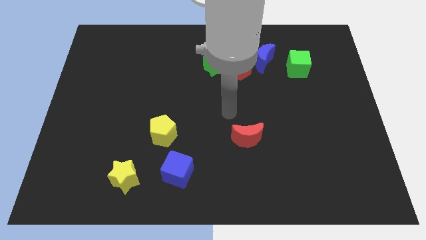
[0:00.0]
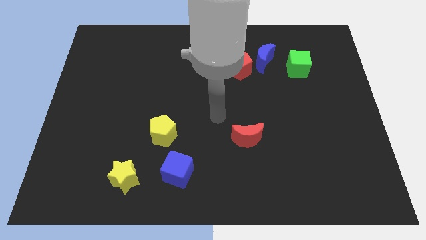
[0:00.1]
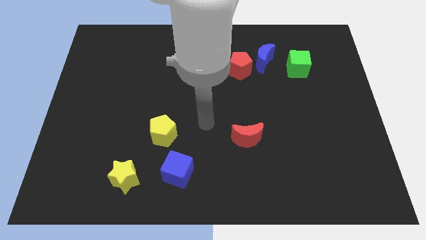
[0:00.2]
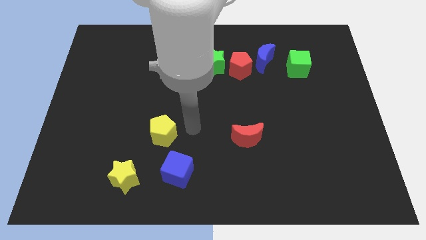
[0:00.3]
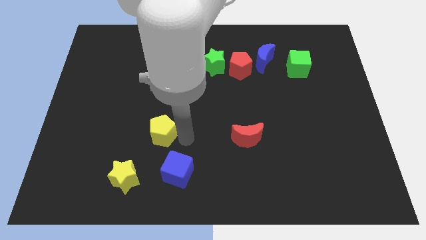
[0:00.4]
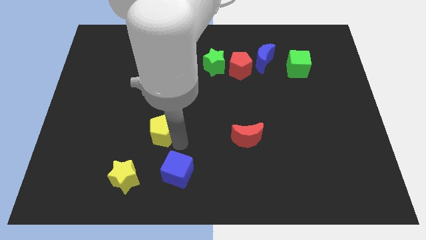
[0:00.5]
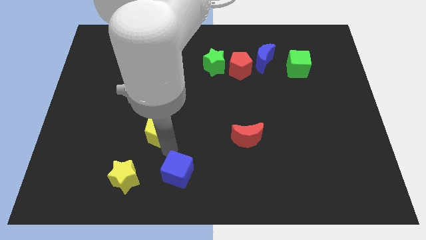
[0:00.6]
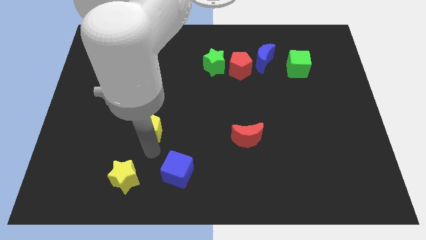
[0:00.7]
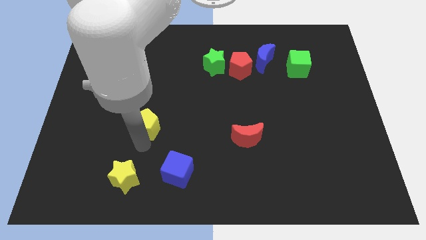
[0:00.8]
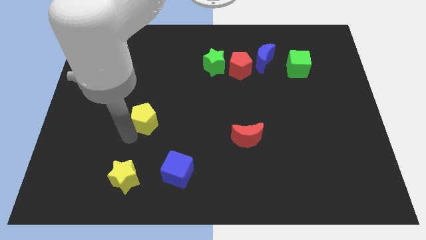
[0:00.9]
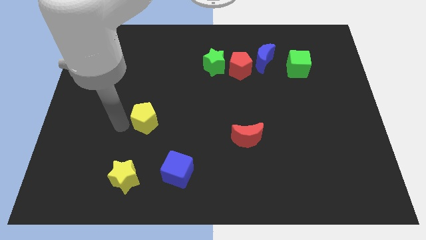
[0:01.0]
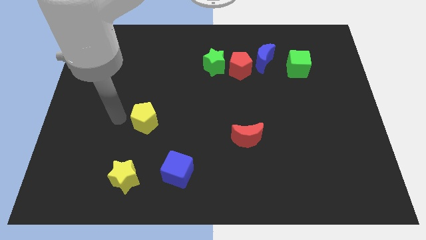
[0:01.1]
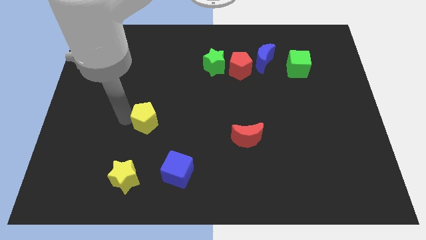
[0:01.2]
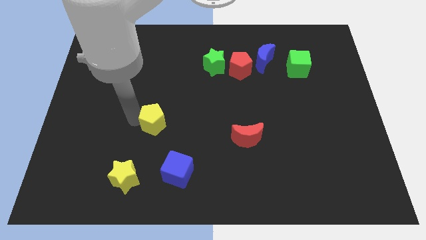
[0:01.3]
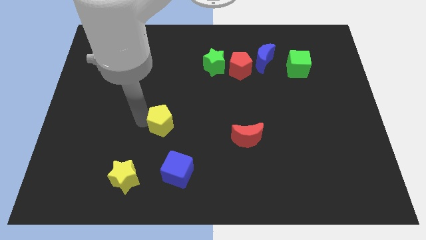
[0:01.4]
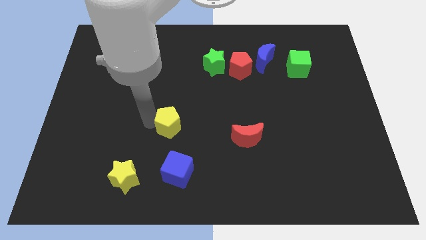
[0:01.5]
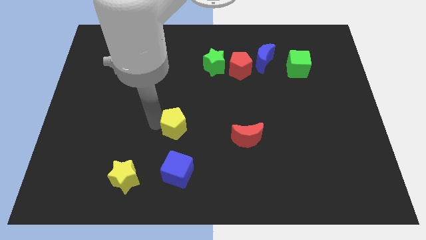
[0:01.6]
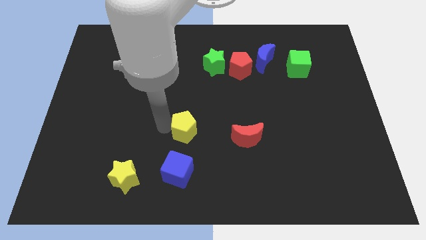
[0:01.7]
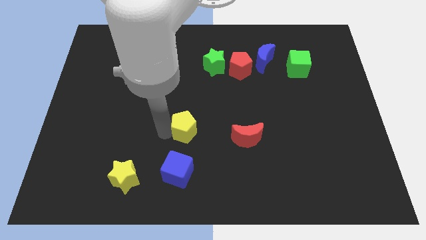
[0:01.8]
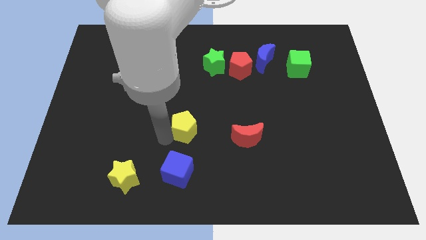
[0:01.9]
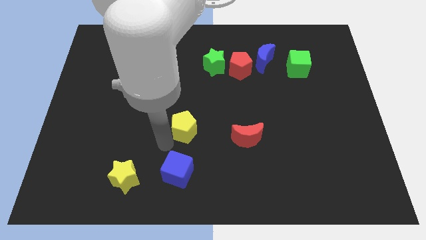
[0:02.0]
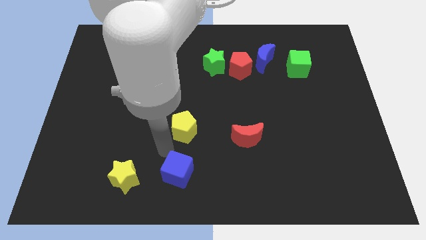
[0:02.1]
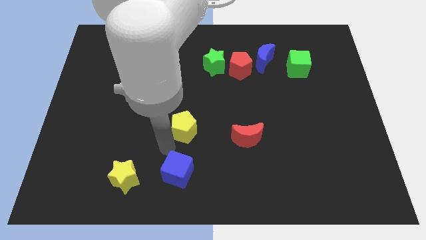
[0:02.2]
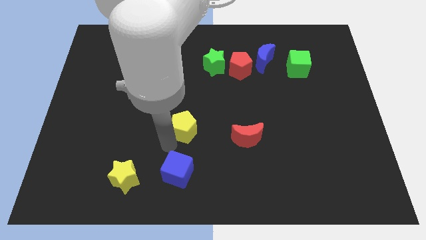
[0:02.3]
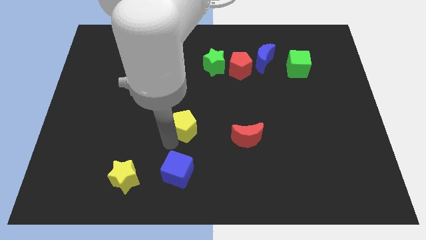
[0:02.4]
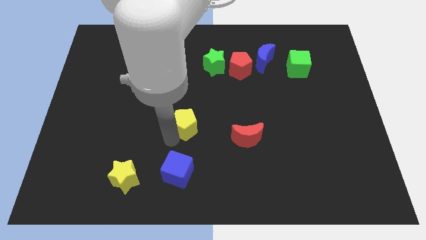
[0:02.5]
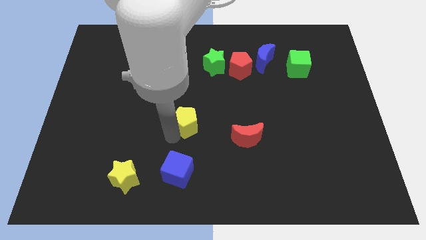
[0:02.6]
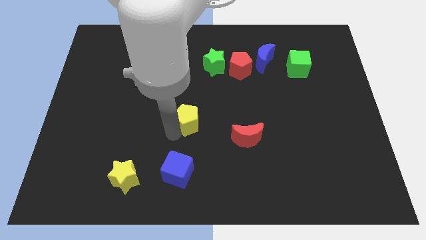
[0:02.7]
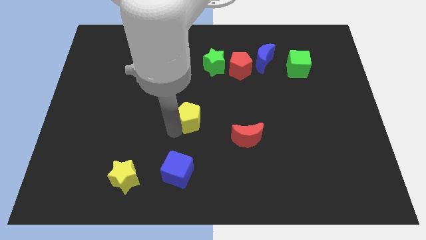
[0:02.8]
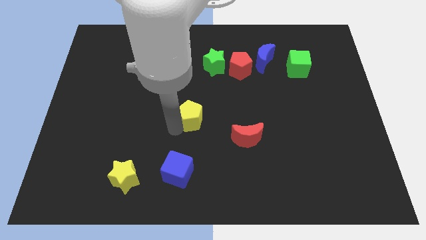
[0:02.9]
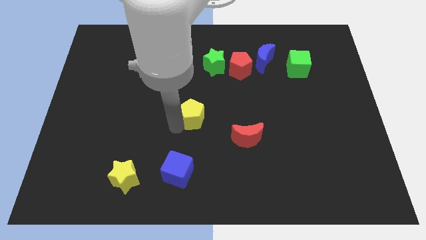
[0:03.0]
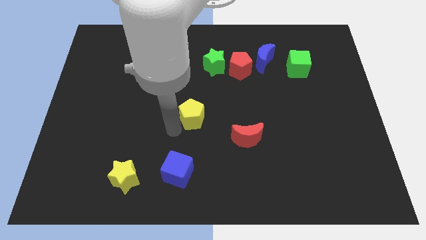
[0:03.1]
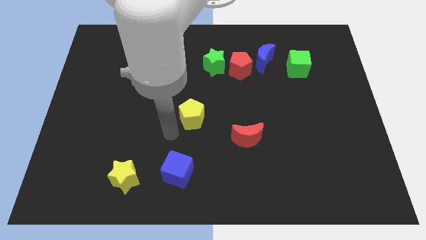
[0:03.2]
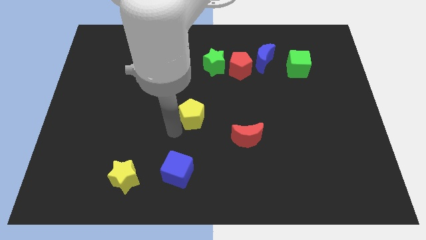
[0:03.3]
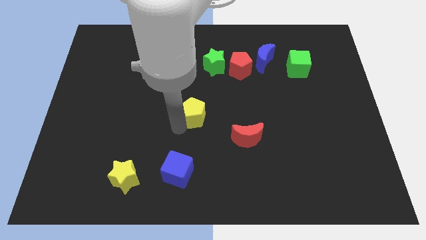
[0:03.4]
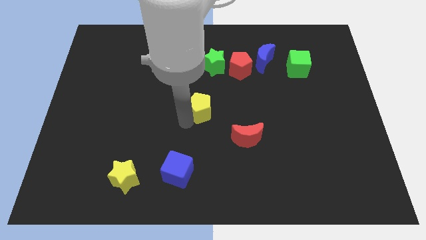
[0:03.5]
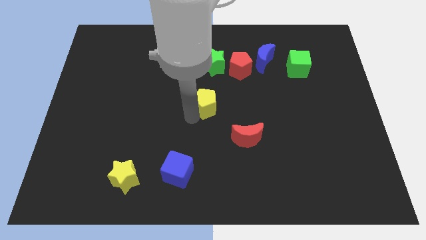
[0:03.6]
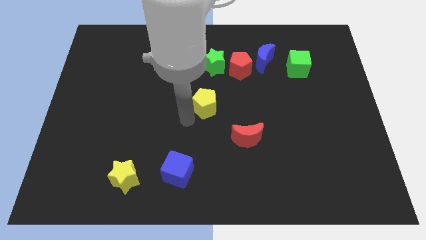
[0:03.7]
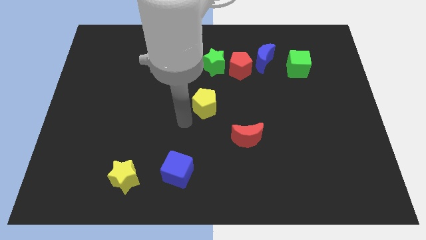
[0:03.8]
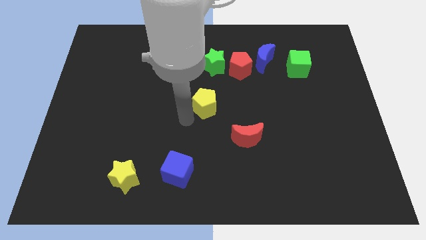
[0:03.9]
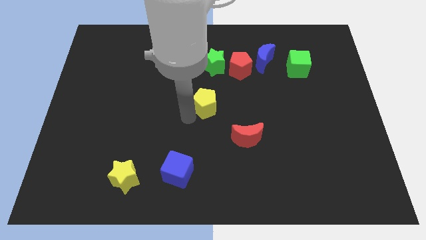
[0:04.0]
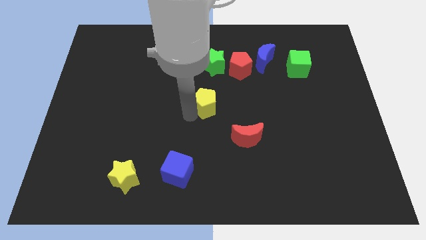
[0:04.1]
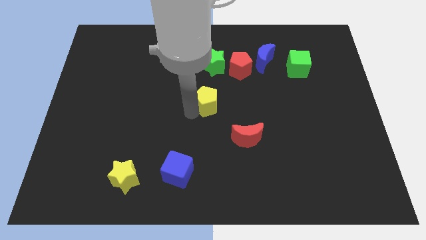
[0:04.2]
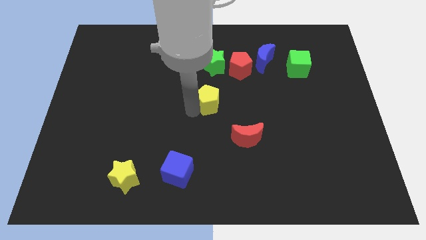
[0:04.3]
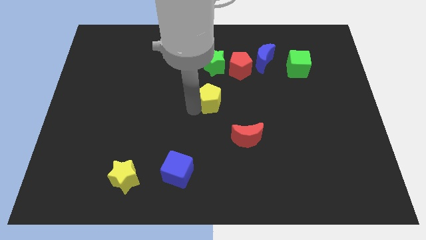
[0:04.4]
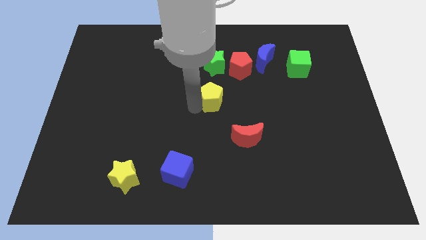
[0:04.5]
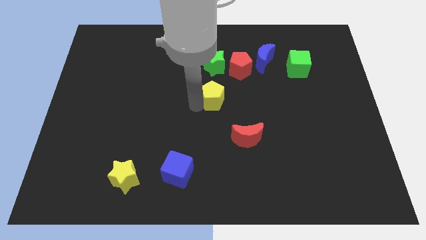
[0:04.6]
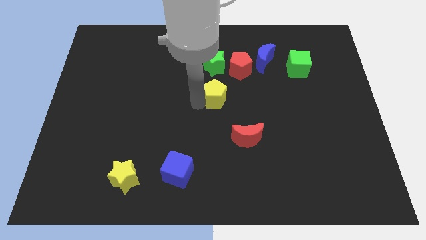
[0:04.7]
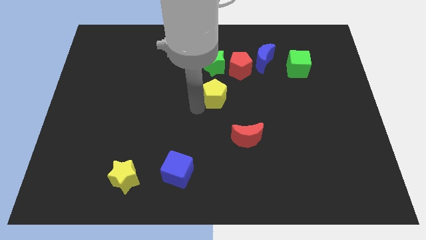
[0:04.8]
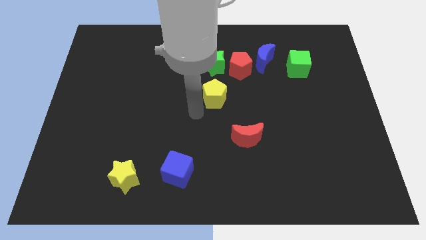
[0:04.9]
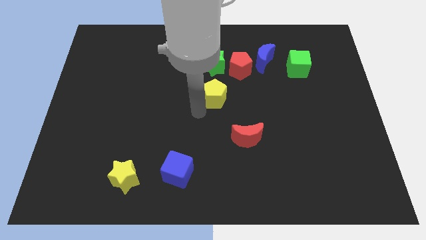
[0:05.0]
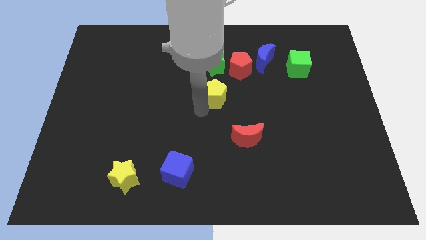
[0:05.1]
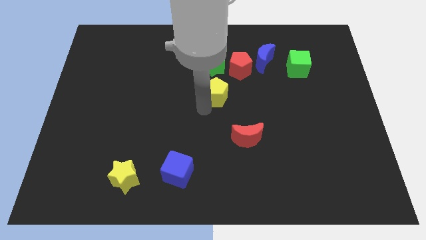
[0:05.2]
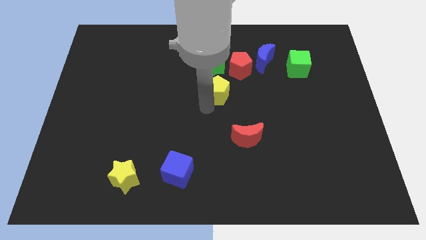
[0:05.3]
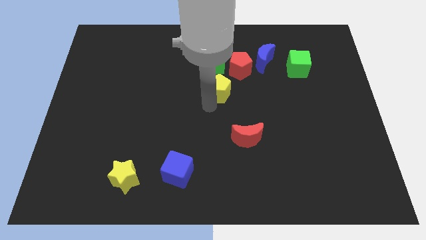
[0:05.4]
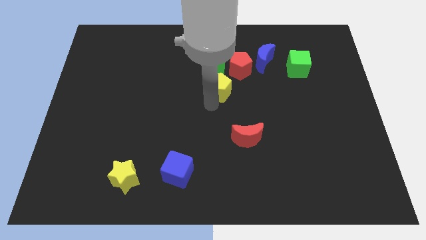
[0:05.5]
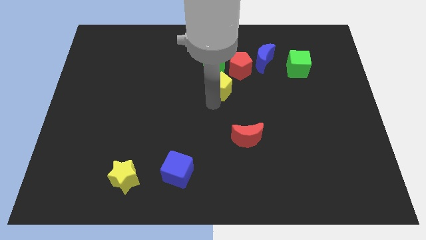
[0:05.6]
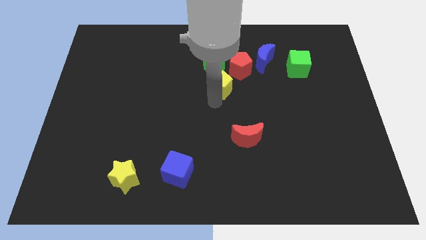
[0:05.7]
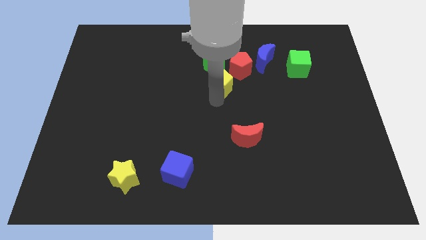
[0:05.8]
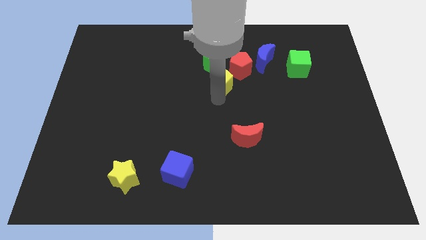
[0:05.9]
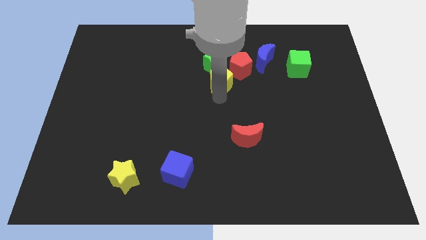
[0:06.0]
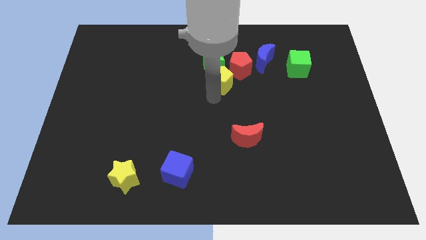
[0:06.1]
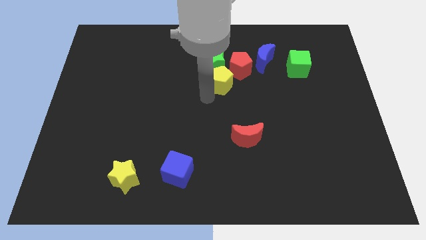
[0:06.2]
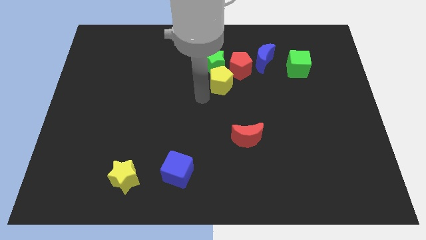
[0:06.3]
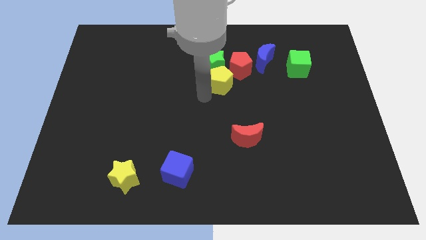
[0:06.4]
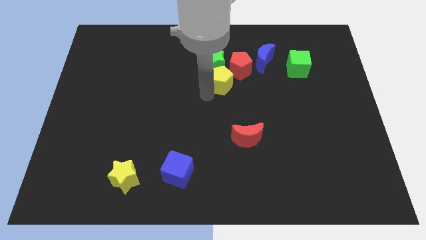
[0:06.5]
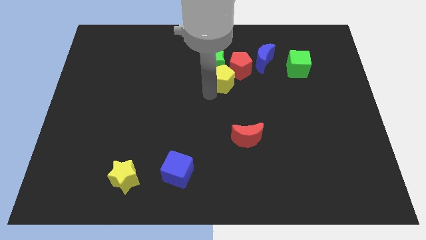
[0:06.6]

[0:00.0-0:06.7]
put the yellow pentagon towards the red pentagon

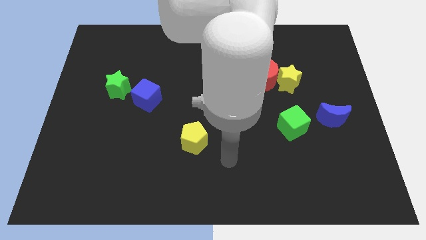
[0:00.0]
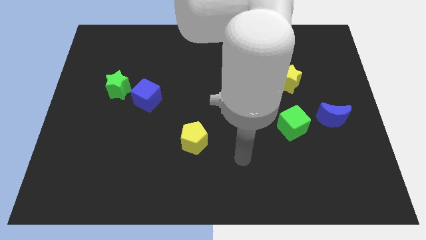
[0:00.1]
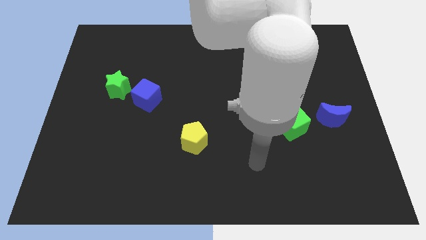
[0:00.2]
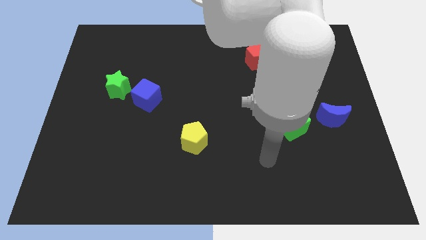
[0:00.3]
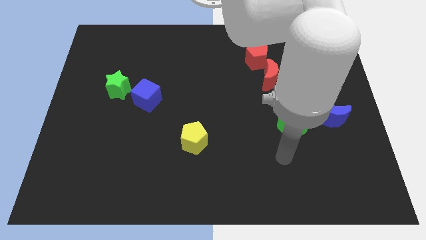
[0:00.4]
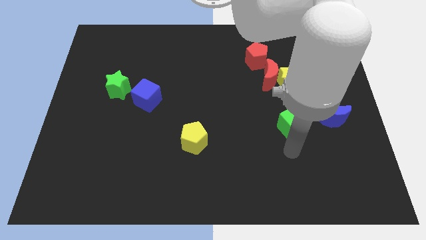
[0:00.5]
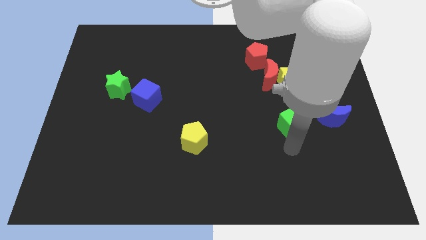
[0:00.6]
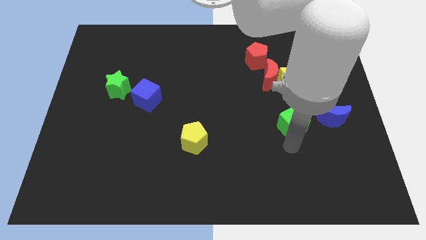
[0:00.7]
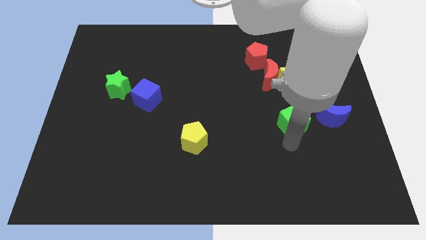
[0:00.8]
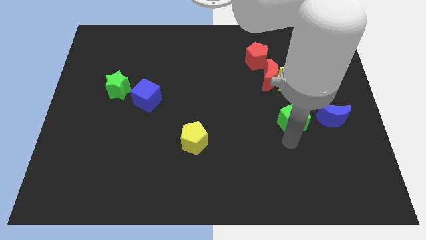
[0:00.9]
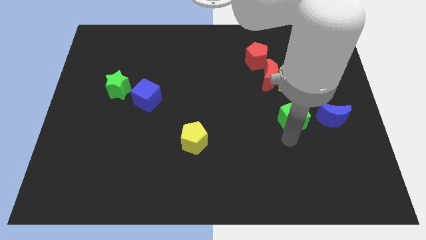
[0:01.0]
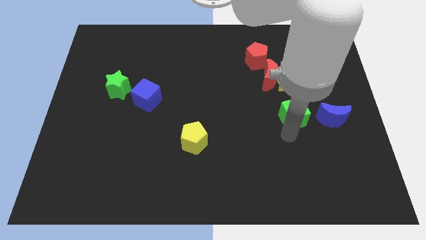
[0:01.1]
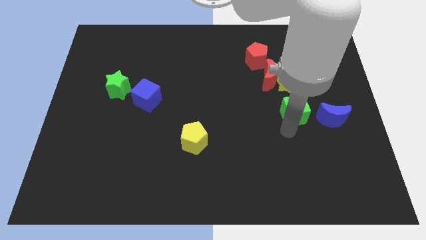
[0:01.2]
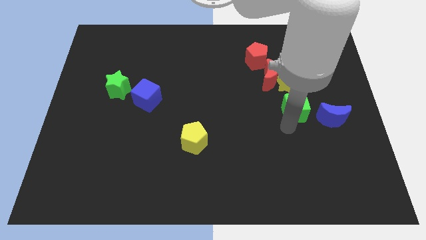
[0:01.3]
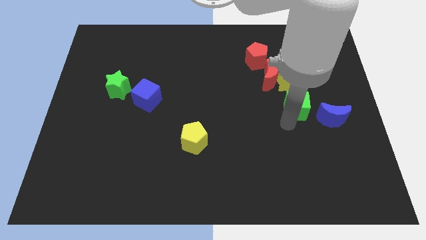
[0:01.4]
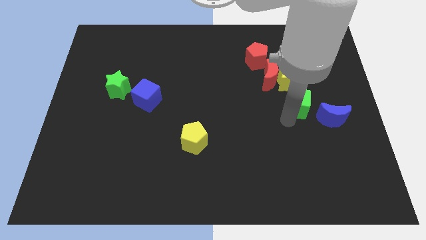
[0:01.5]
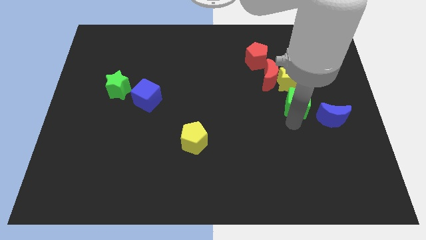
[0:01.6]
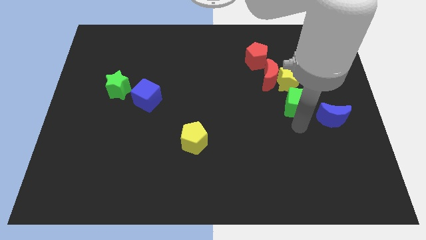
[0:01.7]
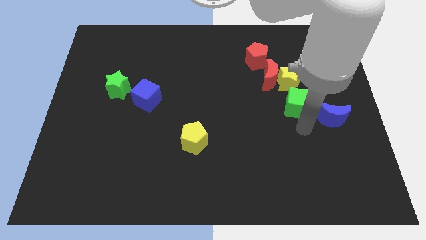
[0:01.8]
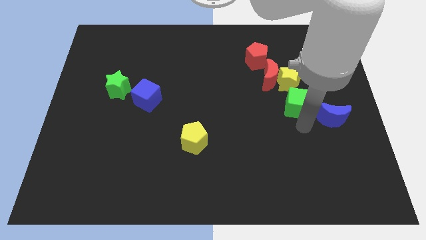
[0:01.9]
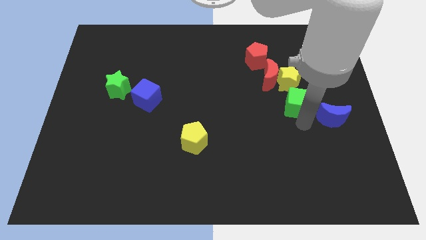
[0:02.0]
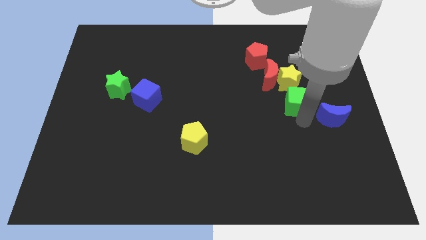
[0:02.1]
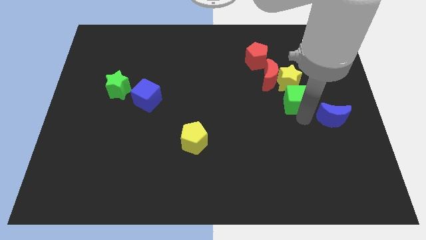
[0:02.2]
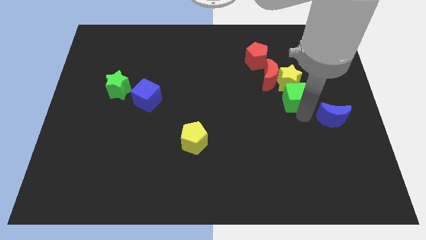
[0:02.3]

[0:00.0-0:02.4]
move the green cube towards the yellow star
